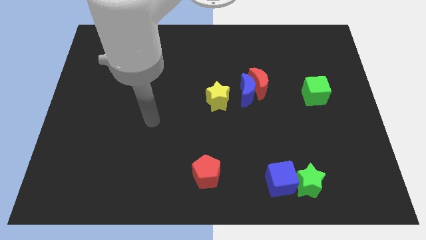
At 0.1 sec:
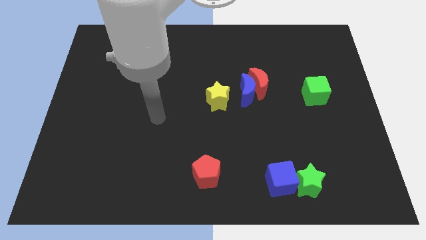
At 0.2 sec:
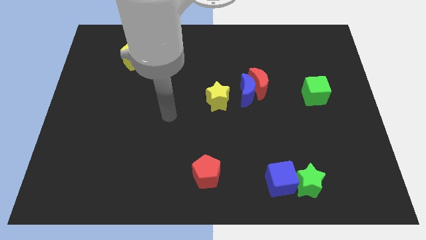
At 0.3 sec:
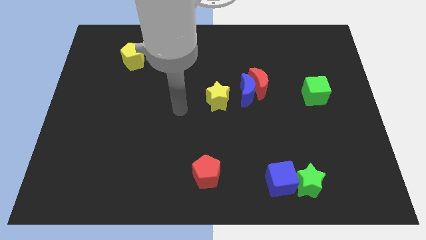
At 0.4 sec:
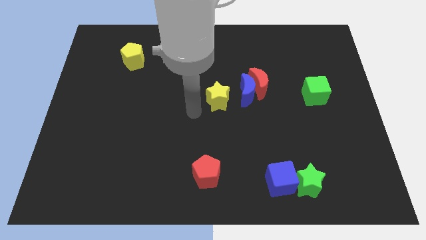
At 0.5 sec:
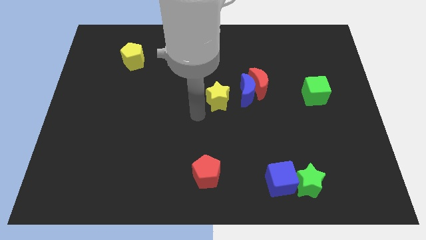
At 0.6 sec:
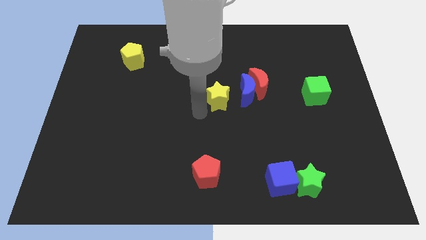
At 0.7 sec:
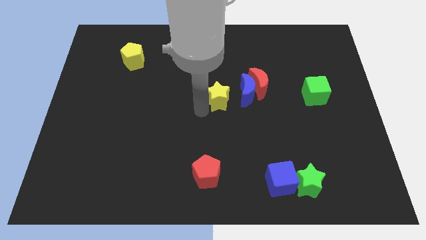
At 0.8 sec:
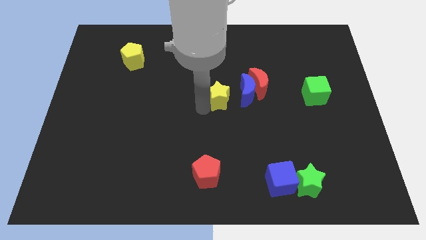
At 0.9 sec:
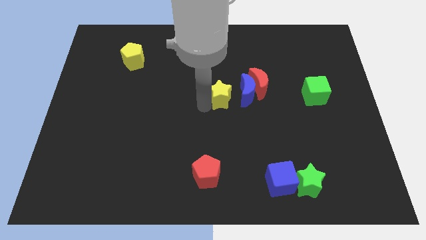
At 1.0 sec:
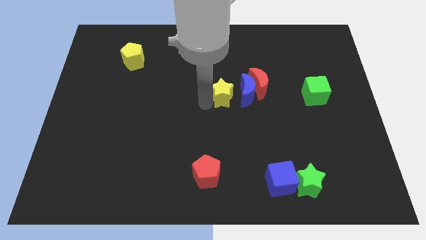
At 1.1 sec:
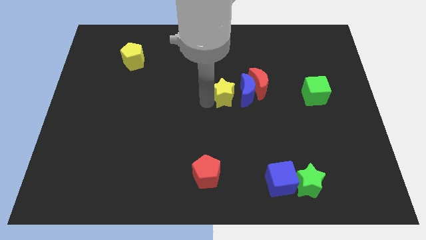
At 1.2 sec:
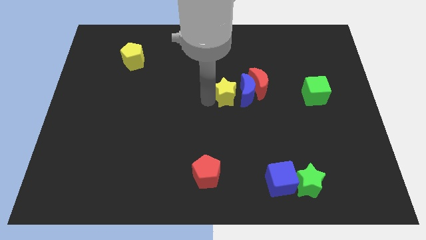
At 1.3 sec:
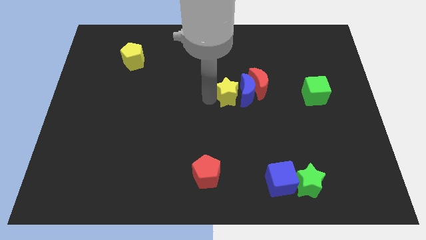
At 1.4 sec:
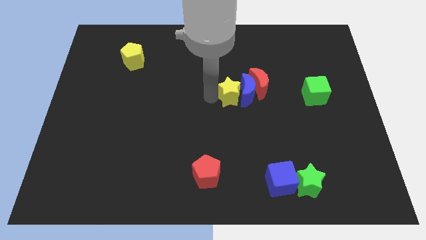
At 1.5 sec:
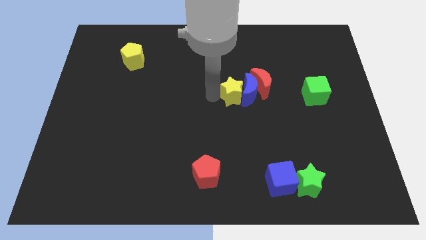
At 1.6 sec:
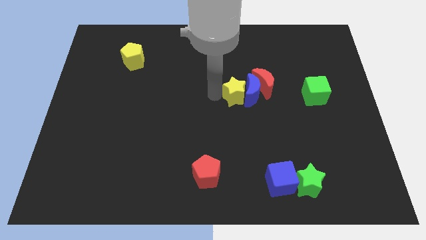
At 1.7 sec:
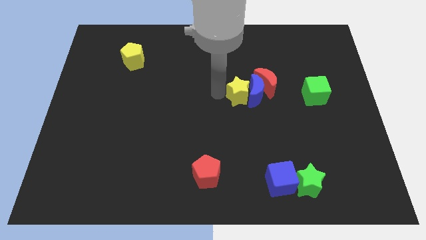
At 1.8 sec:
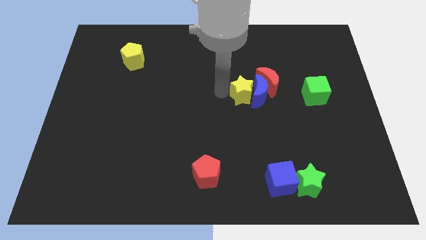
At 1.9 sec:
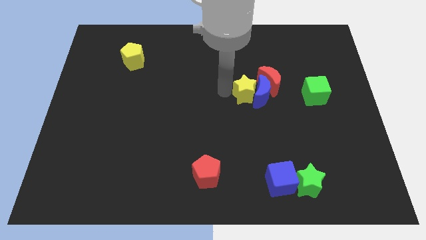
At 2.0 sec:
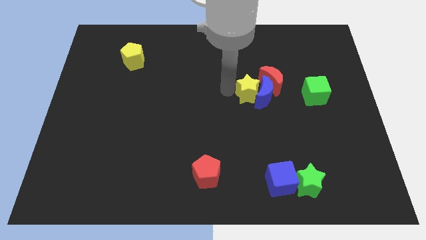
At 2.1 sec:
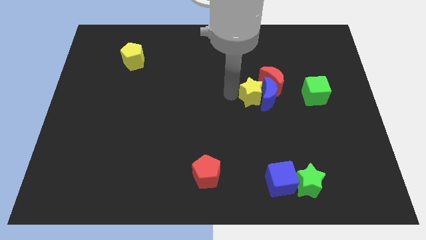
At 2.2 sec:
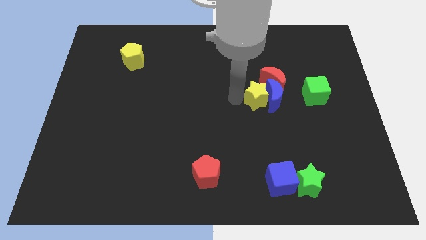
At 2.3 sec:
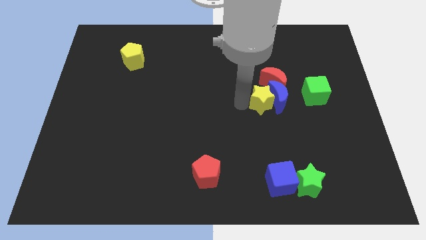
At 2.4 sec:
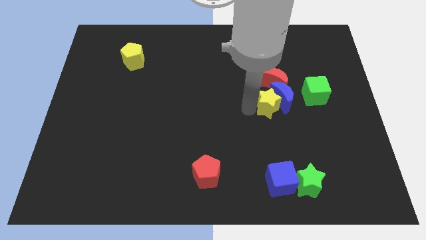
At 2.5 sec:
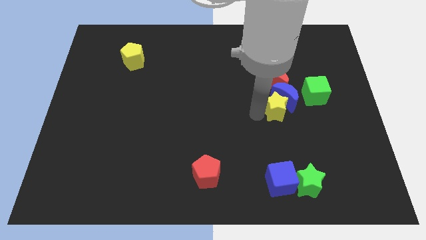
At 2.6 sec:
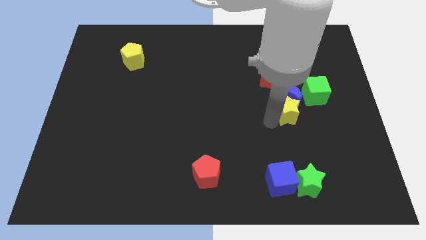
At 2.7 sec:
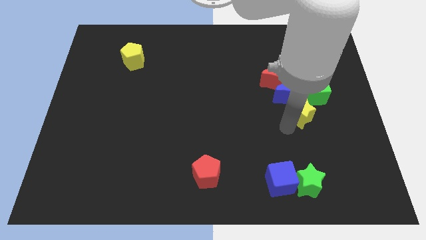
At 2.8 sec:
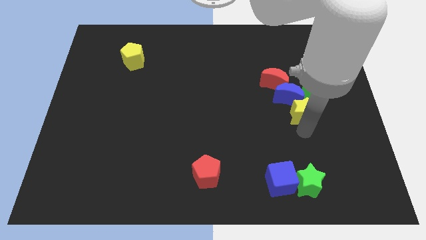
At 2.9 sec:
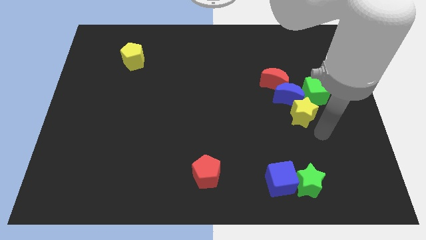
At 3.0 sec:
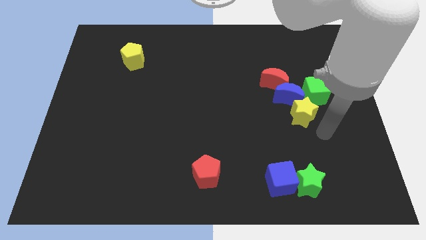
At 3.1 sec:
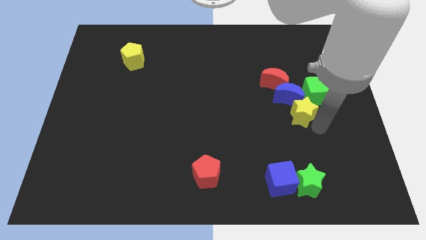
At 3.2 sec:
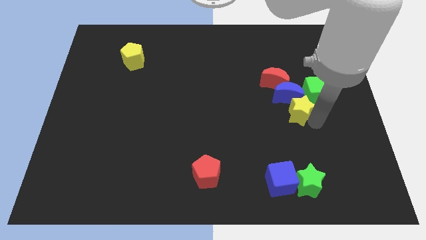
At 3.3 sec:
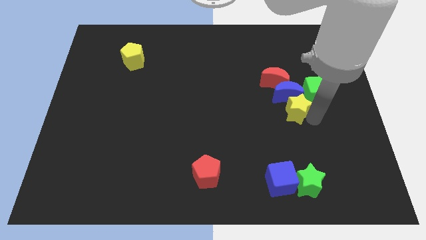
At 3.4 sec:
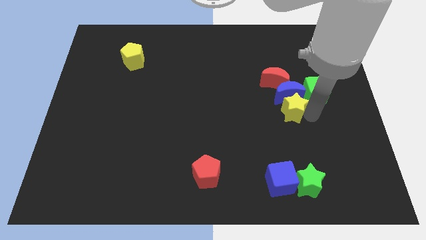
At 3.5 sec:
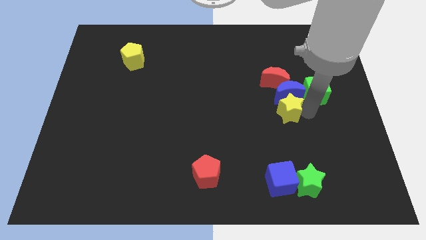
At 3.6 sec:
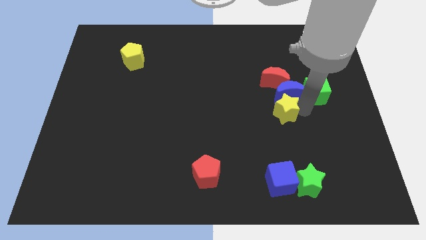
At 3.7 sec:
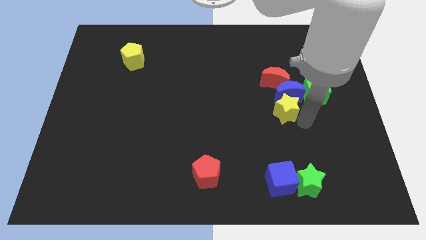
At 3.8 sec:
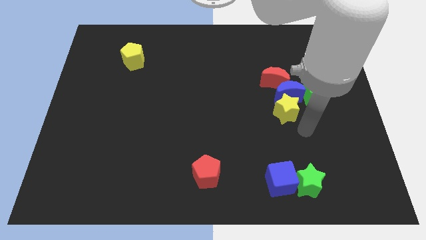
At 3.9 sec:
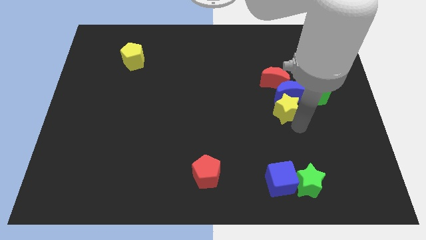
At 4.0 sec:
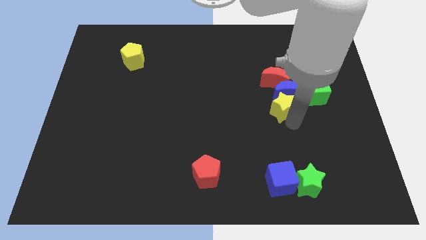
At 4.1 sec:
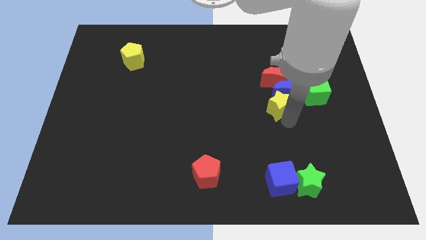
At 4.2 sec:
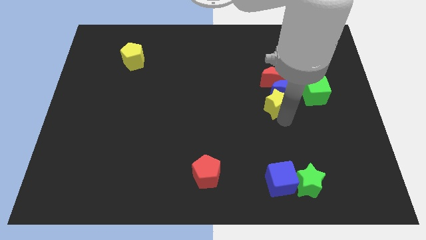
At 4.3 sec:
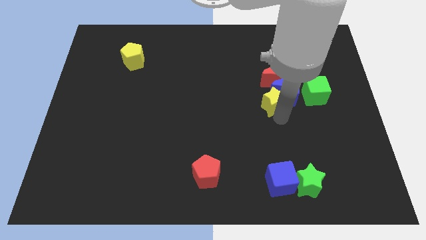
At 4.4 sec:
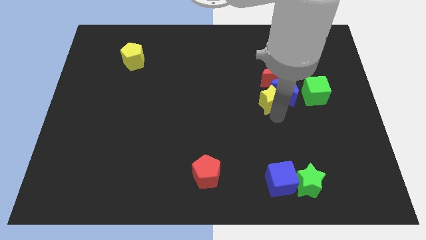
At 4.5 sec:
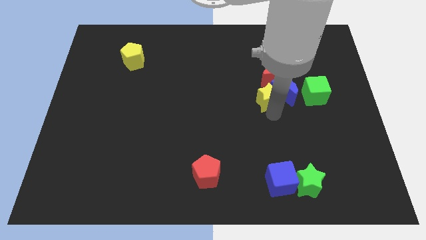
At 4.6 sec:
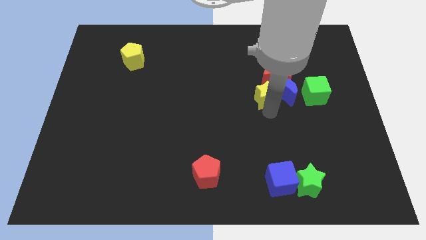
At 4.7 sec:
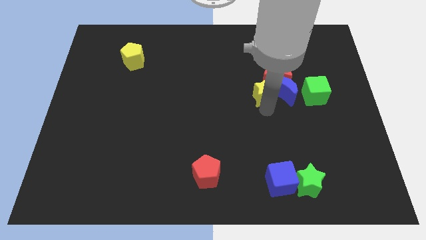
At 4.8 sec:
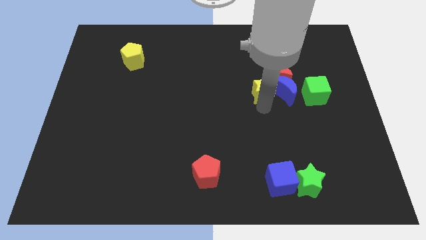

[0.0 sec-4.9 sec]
slightly slide the yellow star up and to the right diagonally

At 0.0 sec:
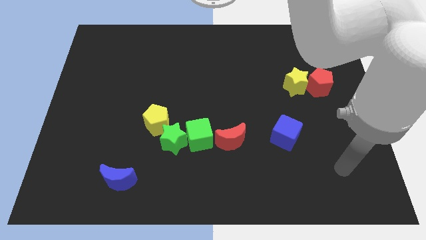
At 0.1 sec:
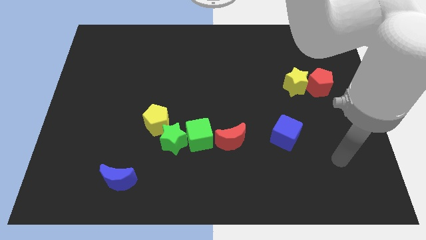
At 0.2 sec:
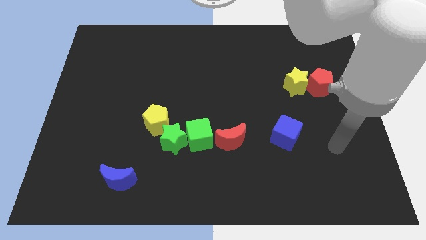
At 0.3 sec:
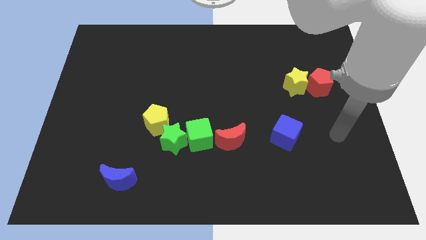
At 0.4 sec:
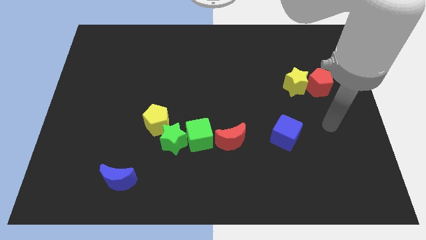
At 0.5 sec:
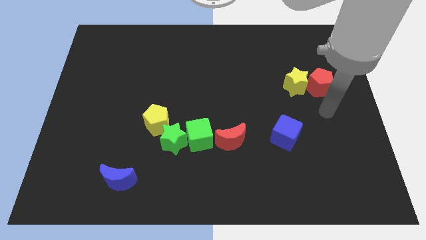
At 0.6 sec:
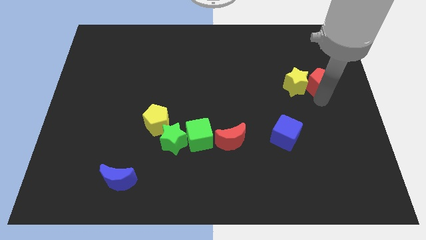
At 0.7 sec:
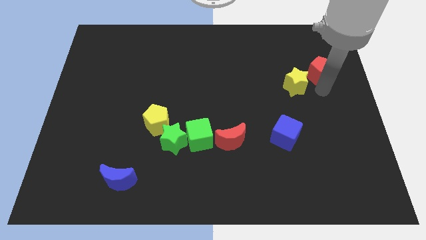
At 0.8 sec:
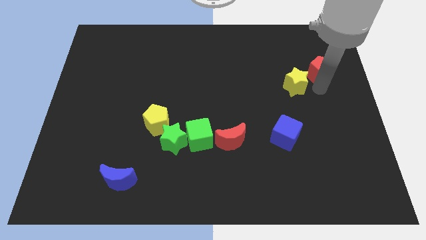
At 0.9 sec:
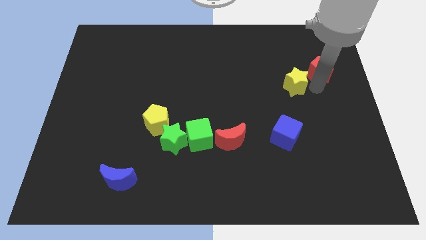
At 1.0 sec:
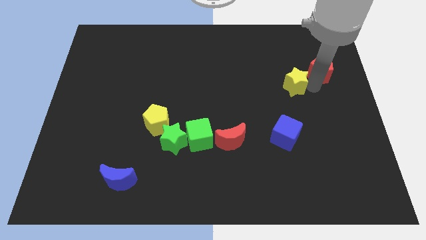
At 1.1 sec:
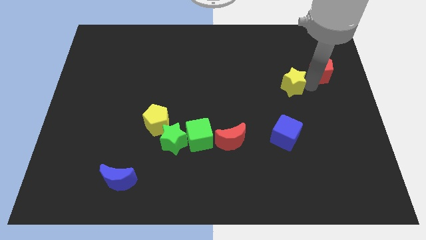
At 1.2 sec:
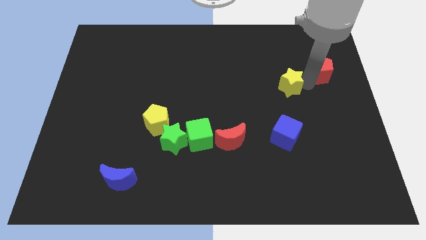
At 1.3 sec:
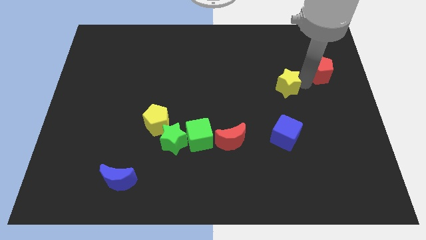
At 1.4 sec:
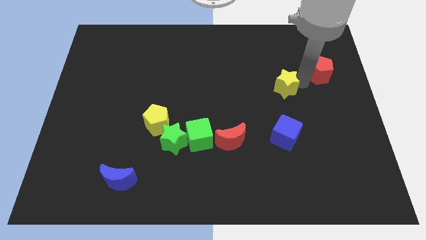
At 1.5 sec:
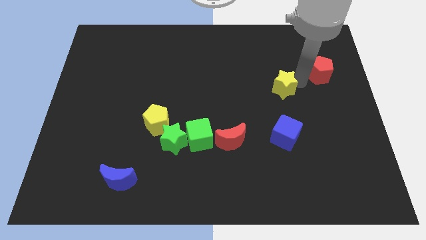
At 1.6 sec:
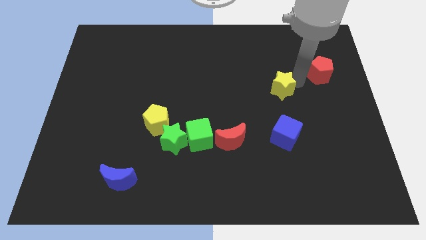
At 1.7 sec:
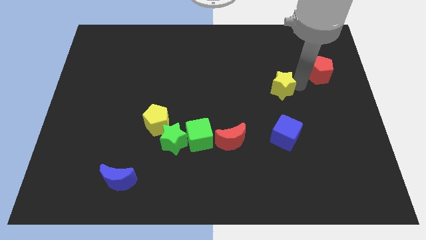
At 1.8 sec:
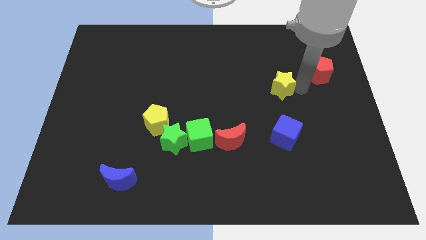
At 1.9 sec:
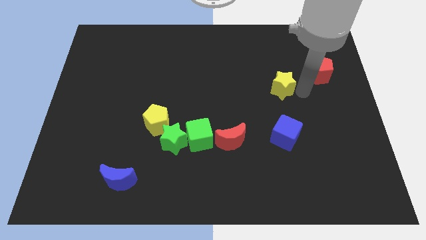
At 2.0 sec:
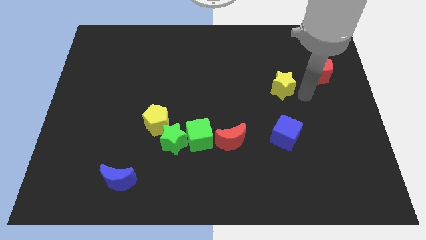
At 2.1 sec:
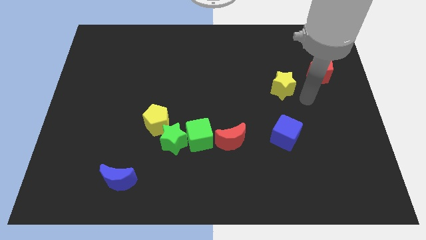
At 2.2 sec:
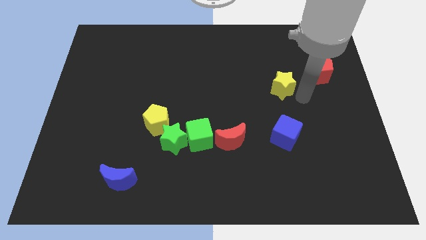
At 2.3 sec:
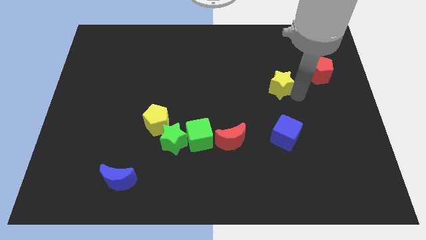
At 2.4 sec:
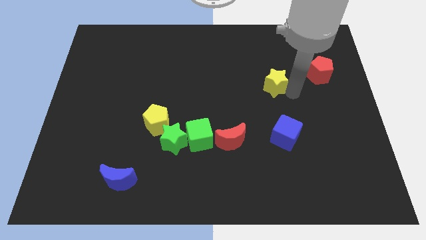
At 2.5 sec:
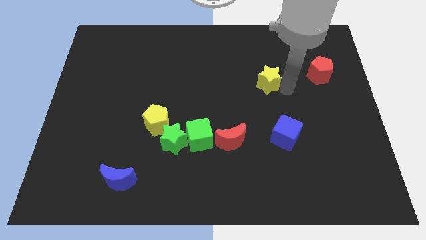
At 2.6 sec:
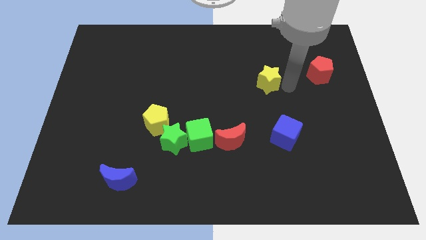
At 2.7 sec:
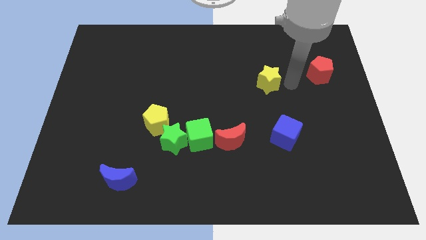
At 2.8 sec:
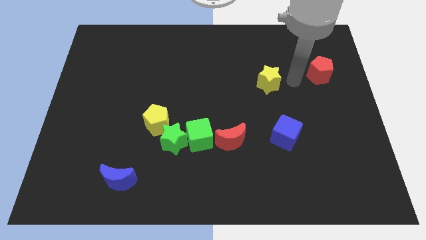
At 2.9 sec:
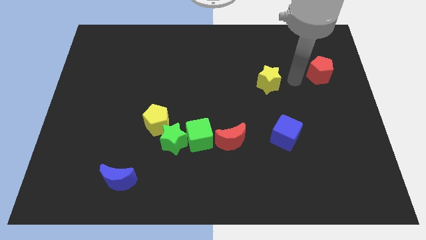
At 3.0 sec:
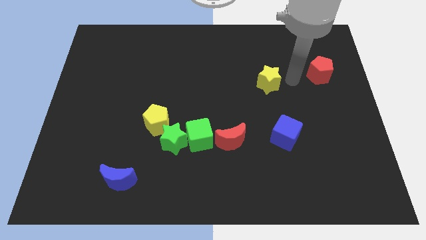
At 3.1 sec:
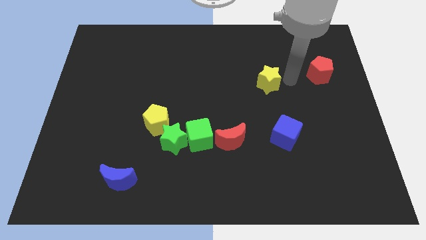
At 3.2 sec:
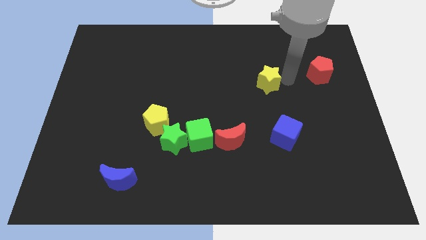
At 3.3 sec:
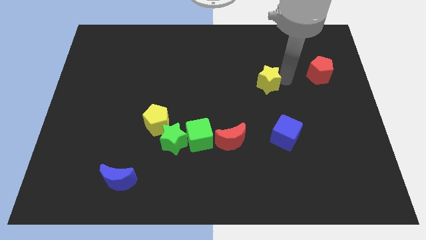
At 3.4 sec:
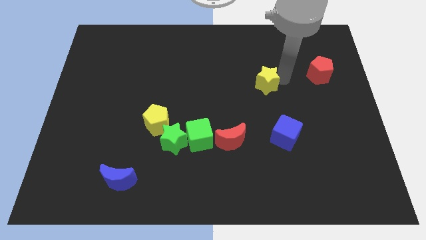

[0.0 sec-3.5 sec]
slightly slide the yellow star to the left
